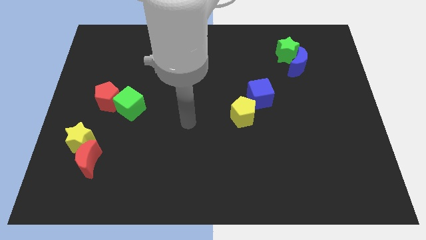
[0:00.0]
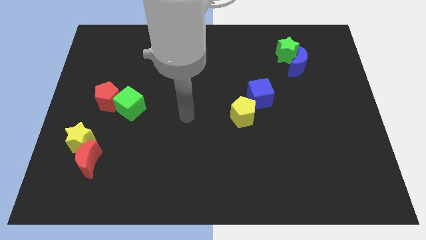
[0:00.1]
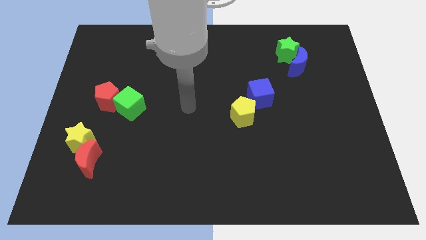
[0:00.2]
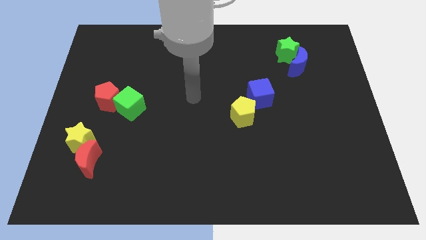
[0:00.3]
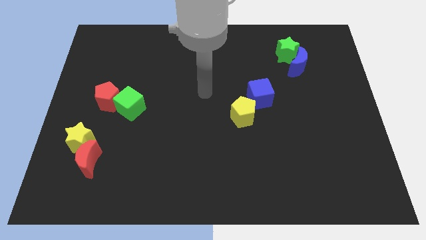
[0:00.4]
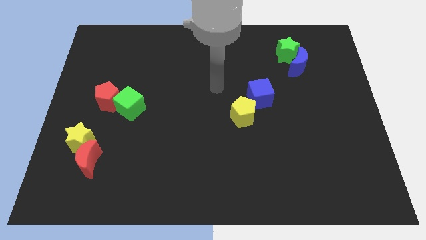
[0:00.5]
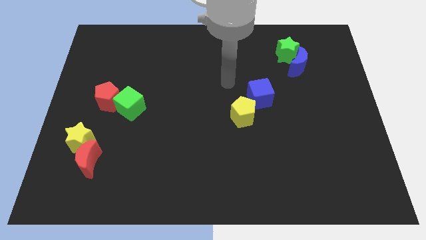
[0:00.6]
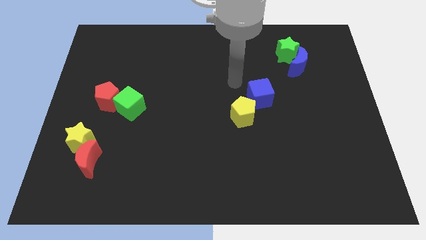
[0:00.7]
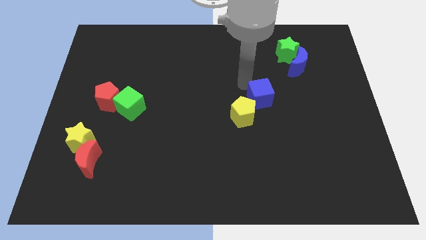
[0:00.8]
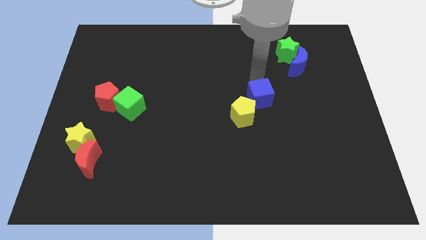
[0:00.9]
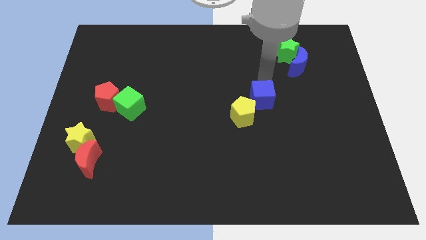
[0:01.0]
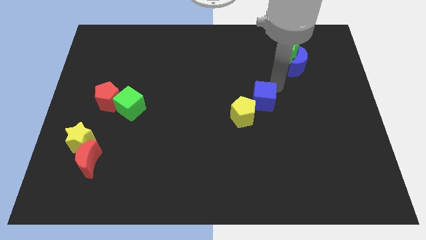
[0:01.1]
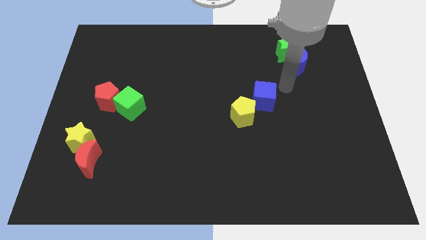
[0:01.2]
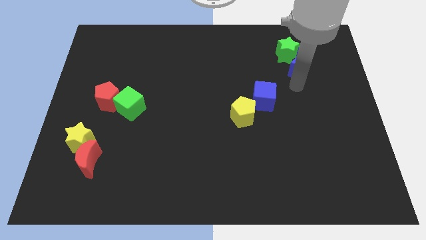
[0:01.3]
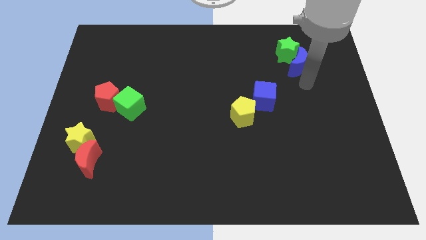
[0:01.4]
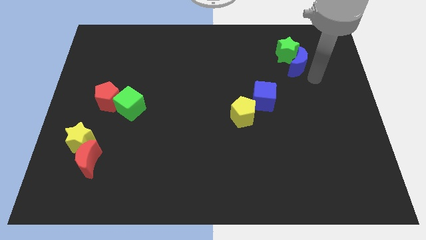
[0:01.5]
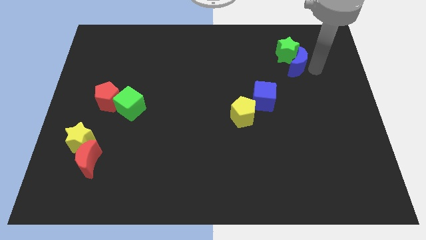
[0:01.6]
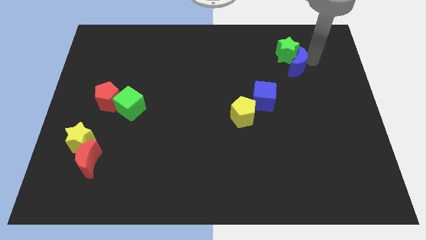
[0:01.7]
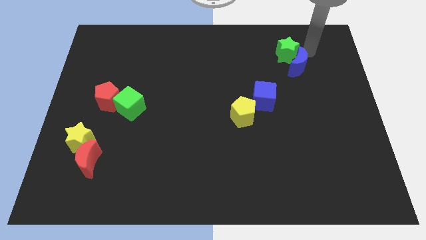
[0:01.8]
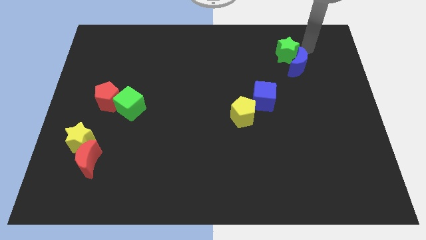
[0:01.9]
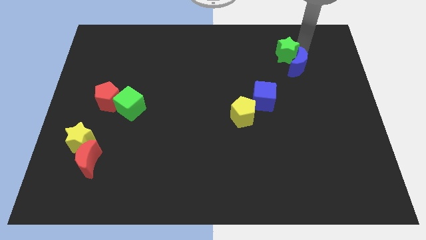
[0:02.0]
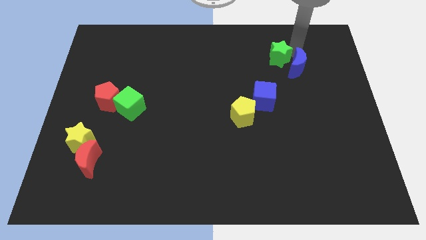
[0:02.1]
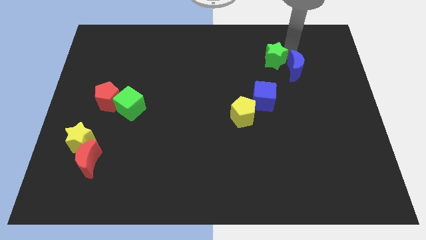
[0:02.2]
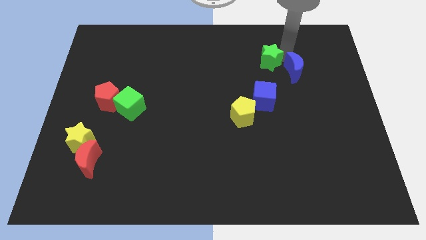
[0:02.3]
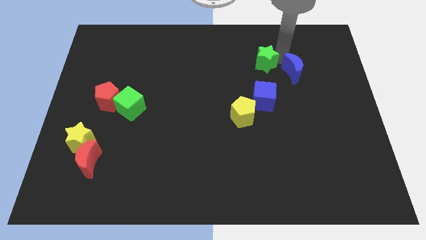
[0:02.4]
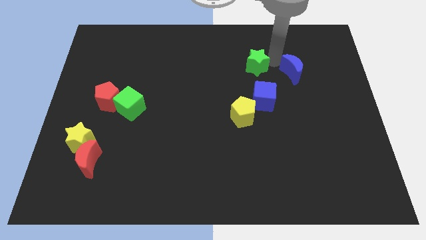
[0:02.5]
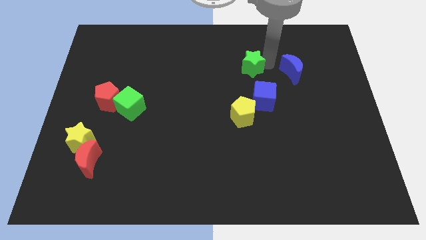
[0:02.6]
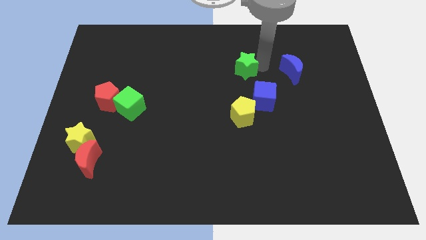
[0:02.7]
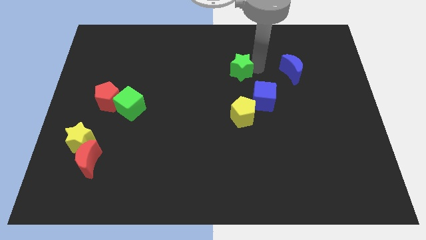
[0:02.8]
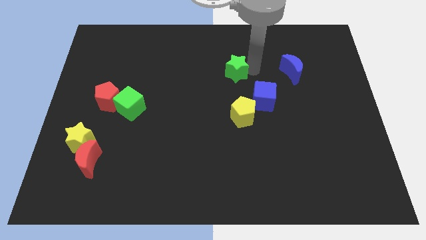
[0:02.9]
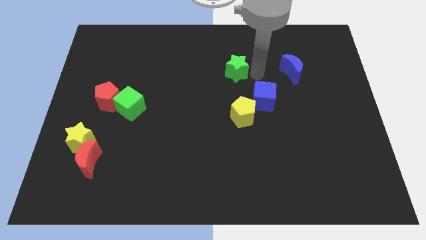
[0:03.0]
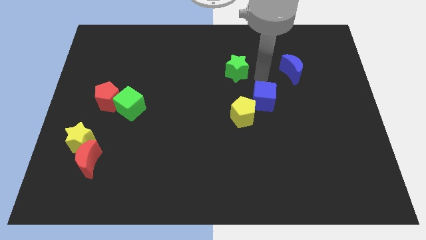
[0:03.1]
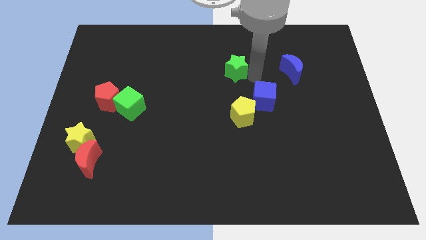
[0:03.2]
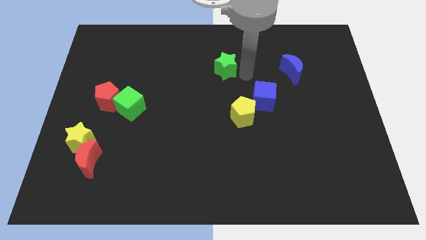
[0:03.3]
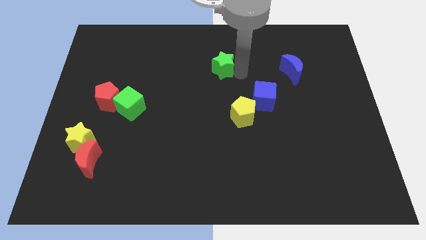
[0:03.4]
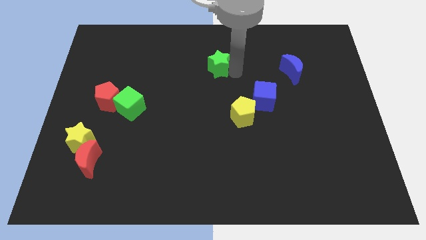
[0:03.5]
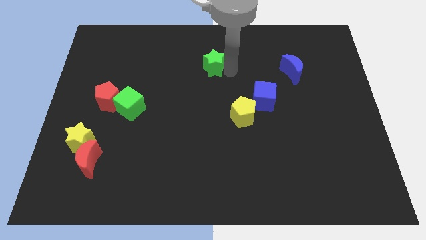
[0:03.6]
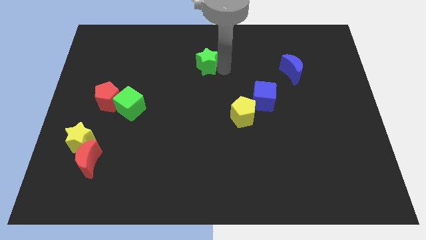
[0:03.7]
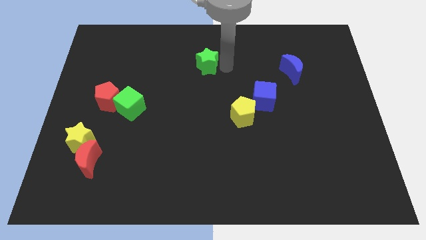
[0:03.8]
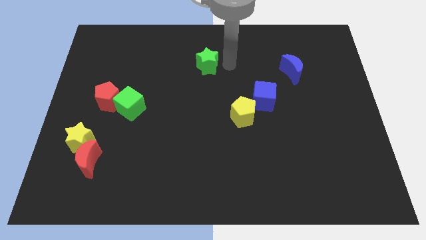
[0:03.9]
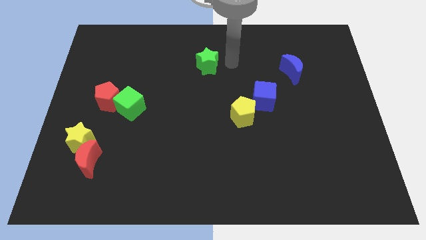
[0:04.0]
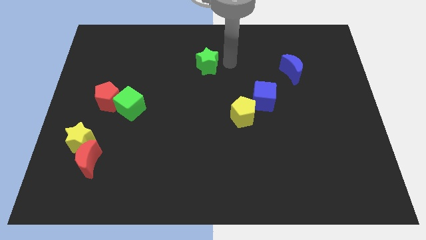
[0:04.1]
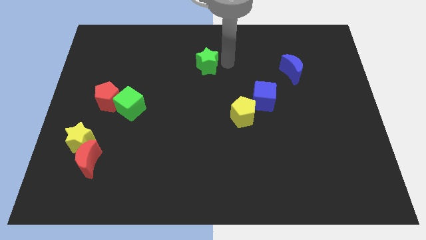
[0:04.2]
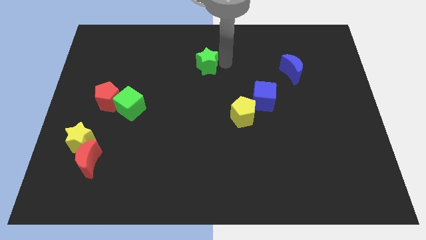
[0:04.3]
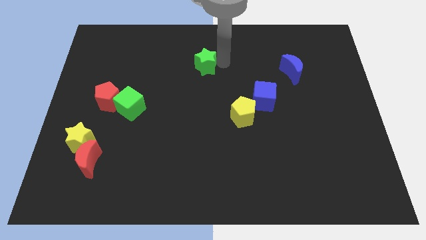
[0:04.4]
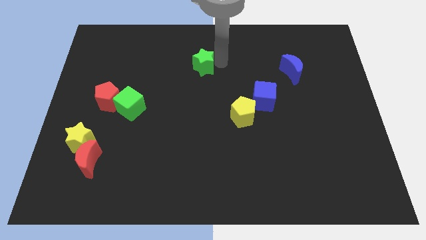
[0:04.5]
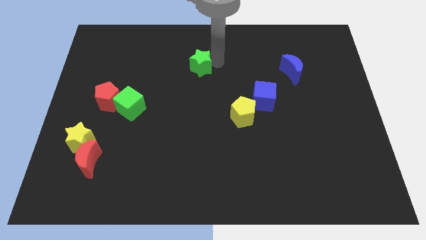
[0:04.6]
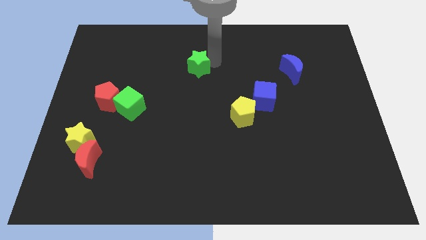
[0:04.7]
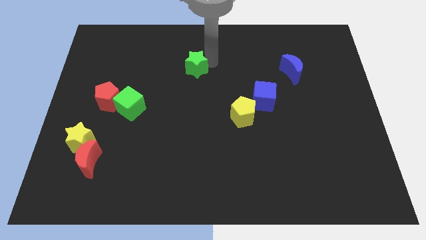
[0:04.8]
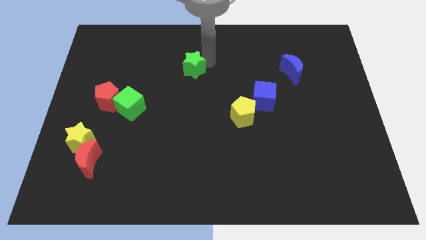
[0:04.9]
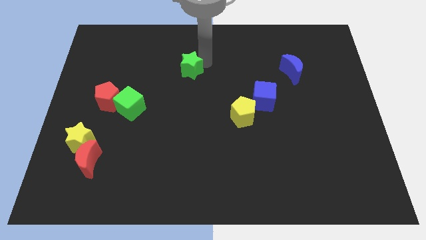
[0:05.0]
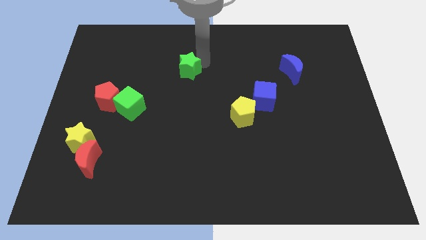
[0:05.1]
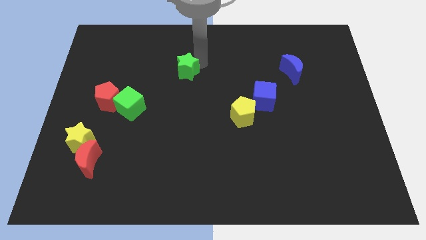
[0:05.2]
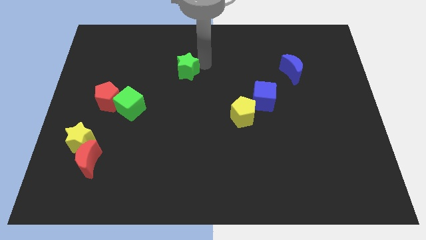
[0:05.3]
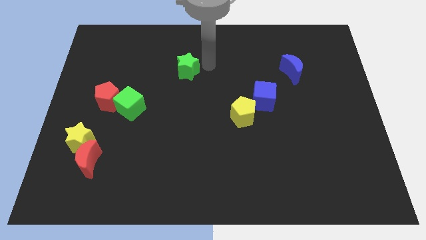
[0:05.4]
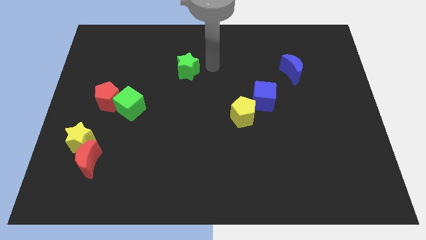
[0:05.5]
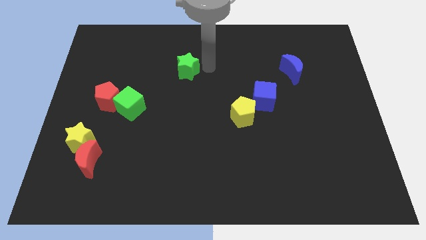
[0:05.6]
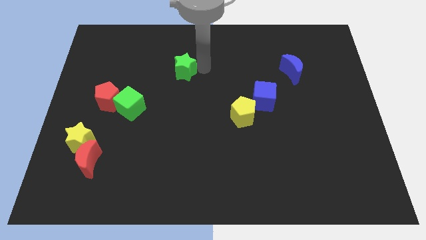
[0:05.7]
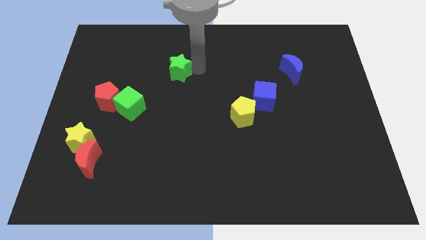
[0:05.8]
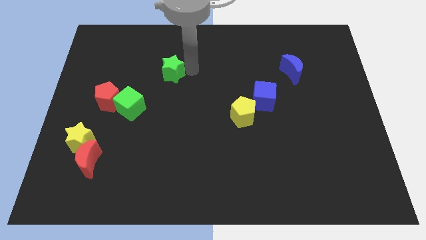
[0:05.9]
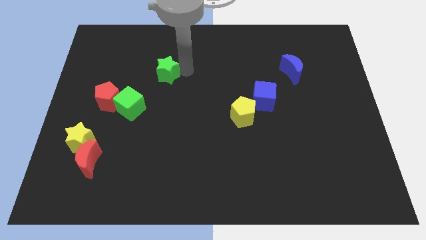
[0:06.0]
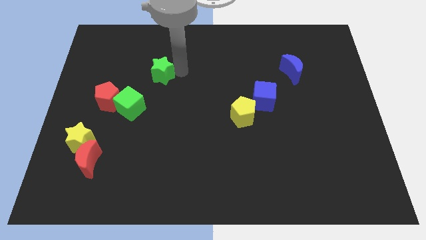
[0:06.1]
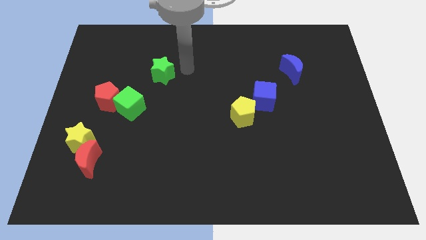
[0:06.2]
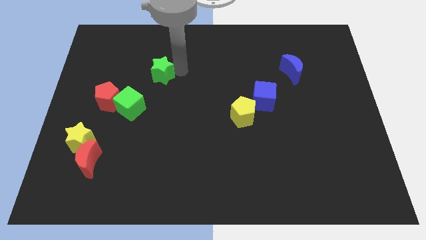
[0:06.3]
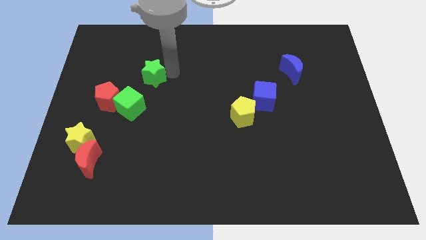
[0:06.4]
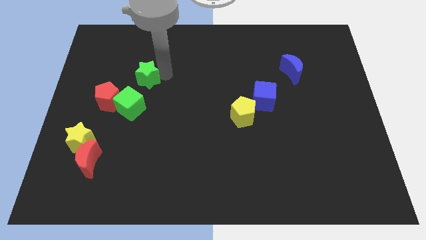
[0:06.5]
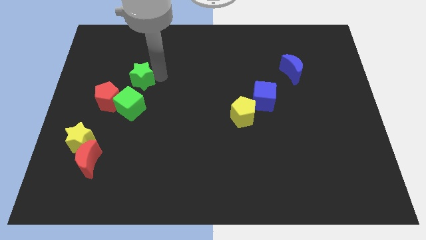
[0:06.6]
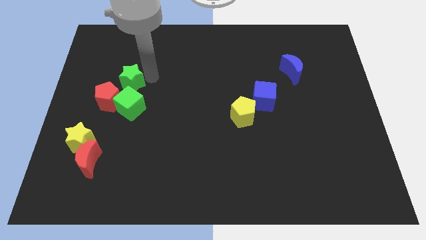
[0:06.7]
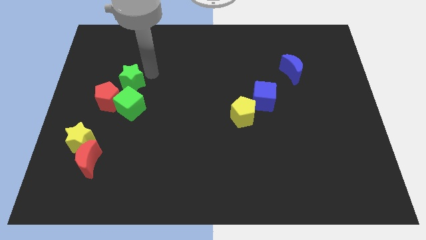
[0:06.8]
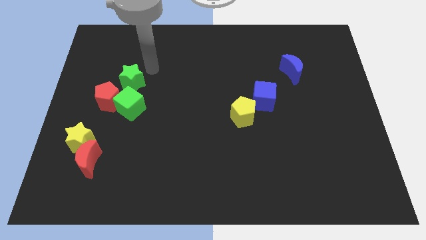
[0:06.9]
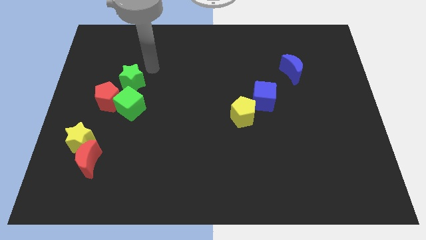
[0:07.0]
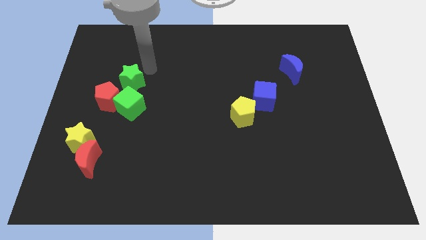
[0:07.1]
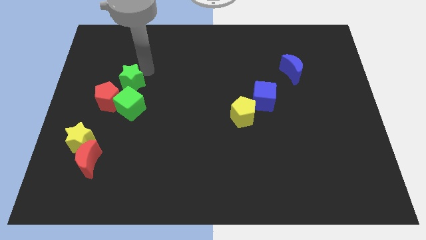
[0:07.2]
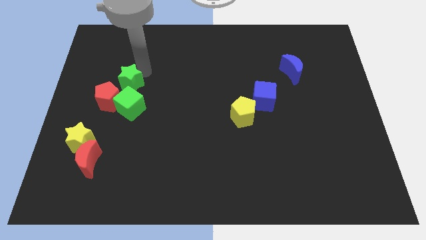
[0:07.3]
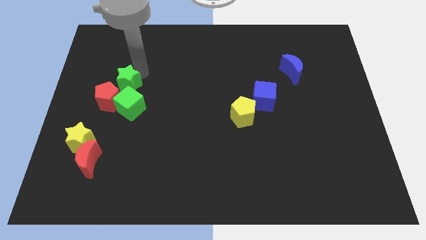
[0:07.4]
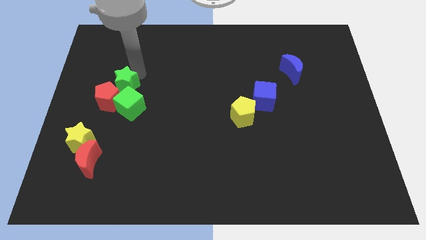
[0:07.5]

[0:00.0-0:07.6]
push the green star towards the red pentagon

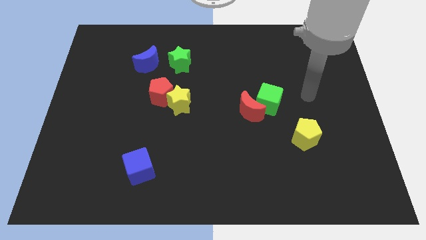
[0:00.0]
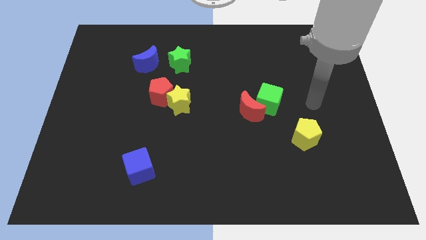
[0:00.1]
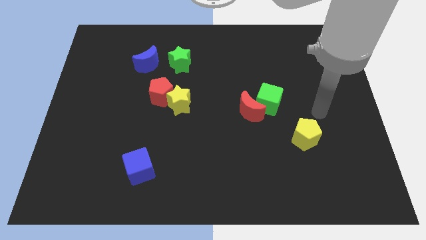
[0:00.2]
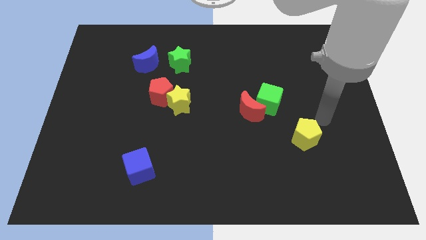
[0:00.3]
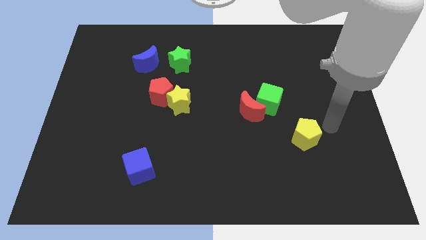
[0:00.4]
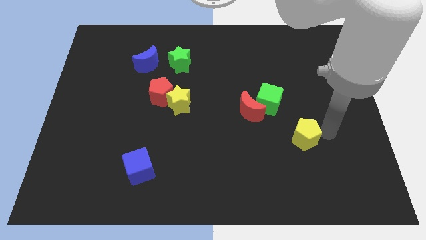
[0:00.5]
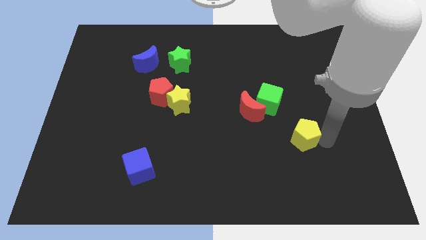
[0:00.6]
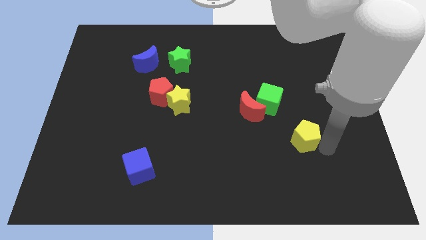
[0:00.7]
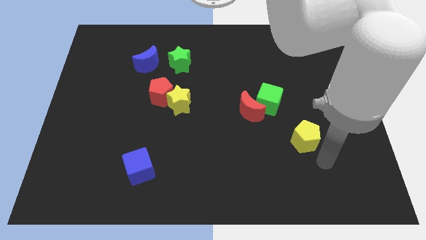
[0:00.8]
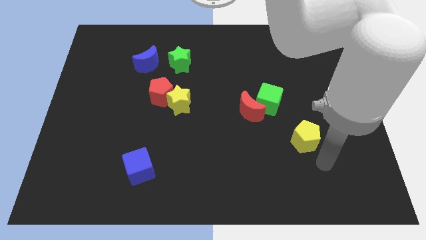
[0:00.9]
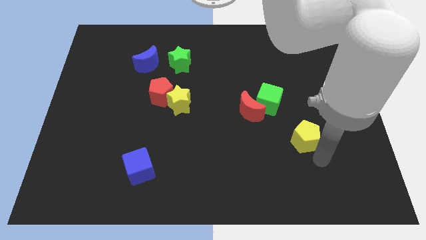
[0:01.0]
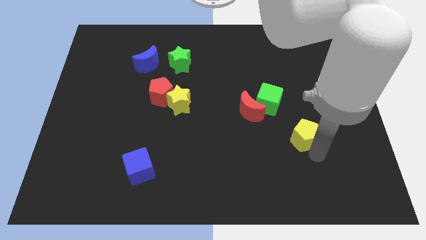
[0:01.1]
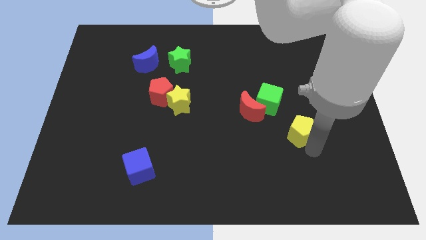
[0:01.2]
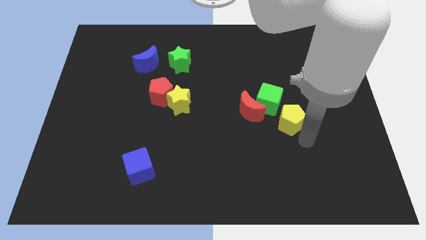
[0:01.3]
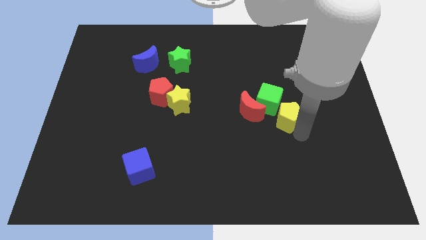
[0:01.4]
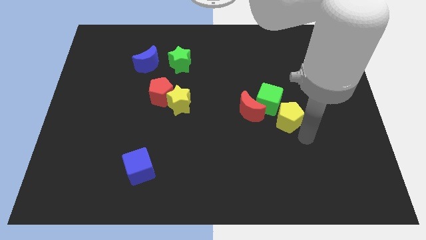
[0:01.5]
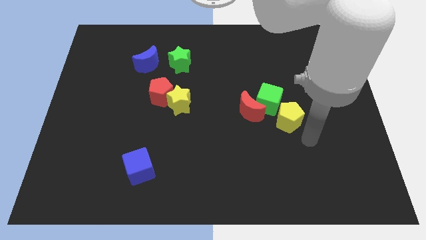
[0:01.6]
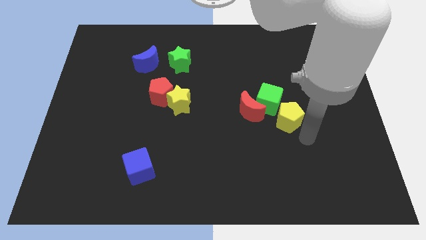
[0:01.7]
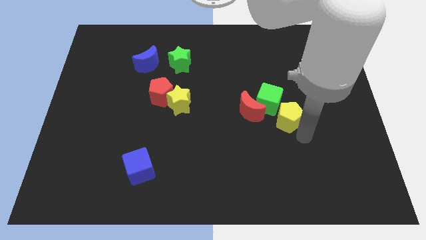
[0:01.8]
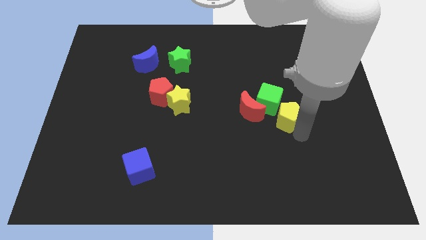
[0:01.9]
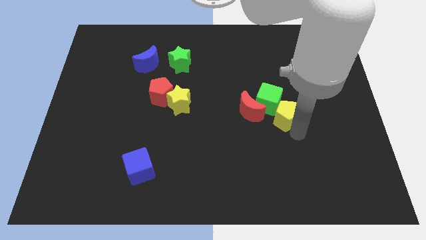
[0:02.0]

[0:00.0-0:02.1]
put the yellow pentagon to the green cube
